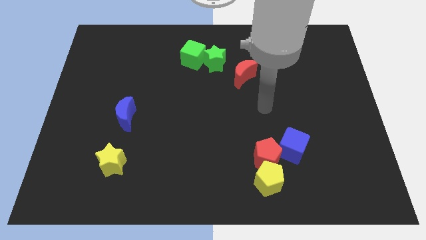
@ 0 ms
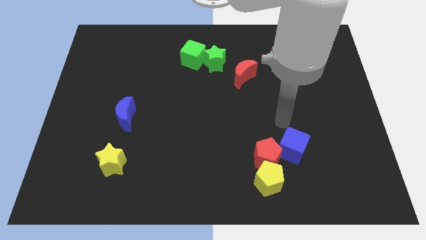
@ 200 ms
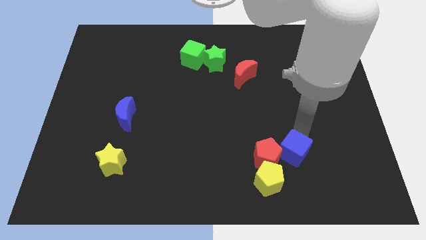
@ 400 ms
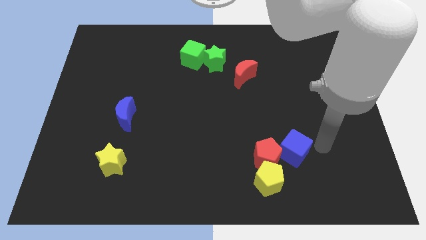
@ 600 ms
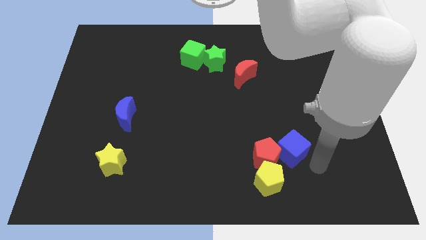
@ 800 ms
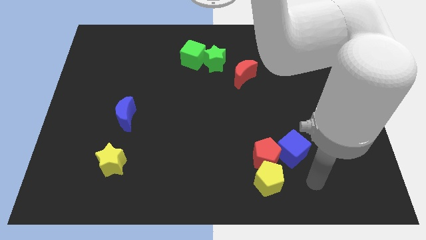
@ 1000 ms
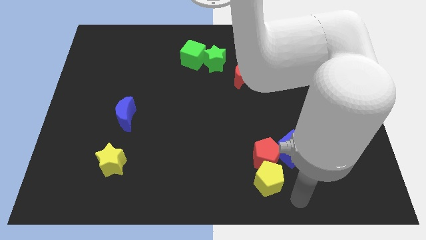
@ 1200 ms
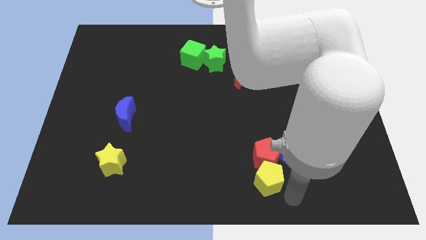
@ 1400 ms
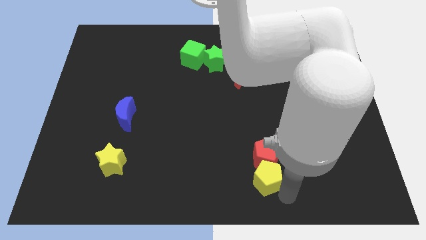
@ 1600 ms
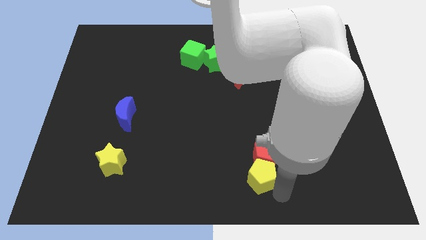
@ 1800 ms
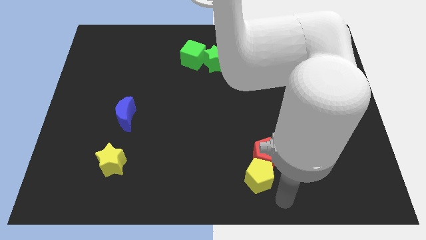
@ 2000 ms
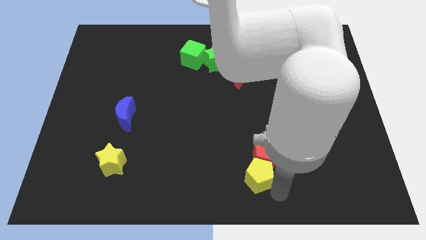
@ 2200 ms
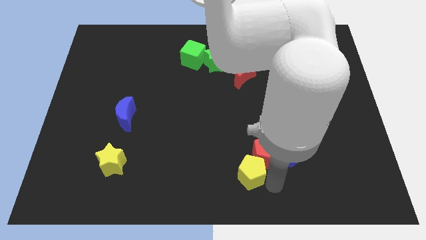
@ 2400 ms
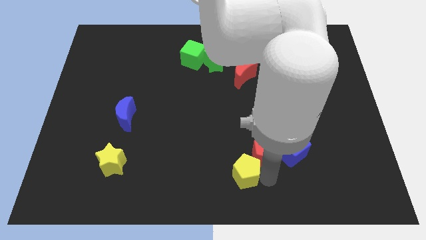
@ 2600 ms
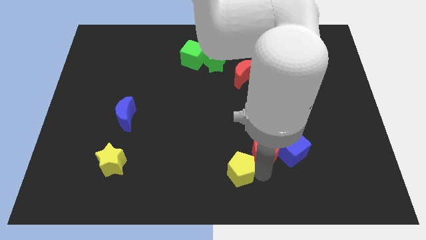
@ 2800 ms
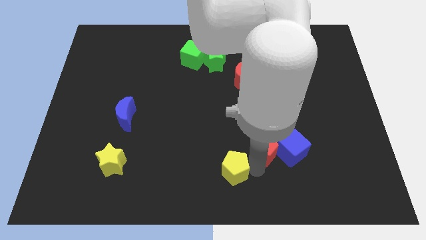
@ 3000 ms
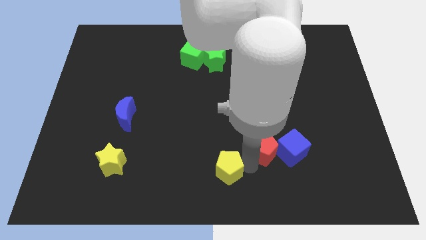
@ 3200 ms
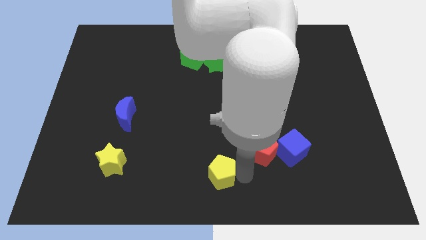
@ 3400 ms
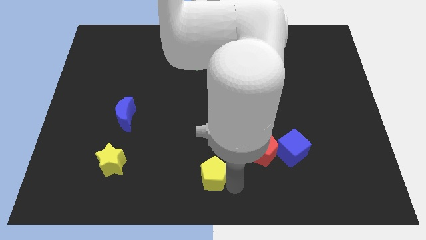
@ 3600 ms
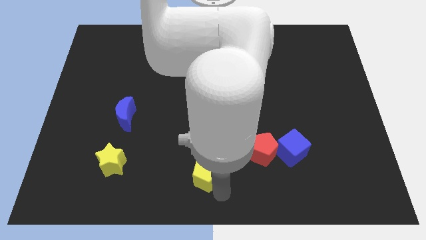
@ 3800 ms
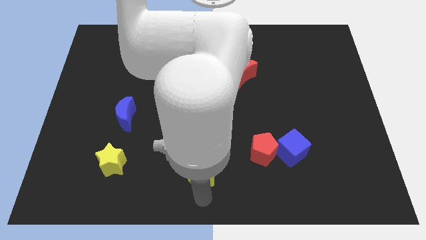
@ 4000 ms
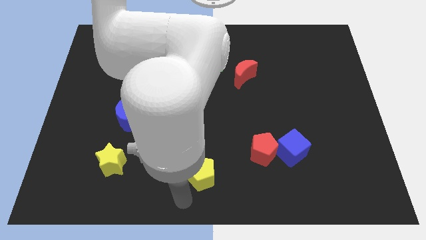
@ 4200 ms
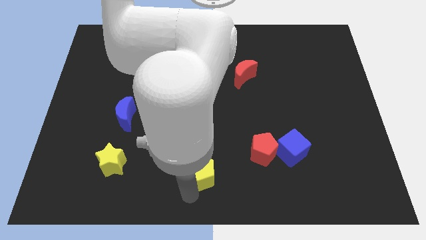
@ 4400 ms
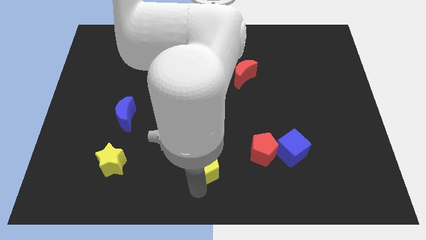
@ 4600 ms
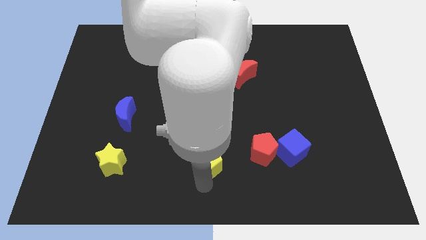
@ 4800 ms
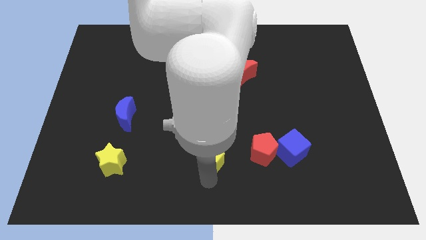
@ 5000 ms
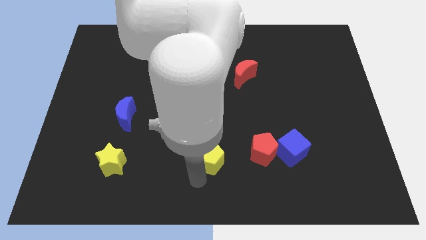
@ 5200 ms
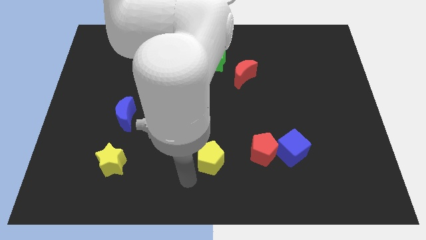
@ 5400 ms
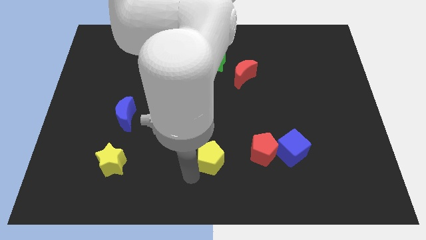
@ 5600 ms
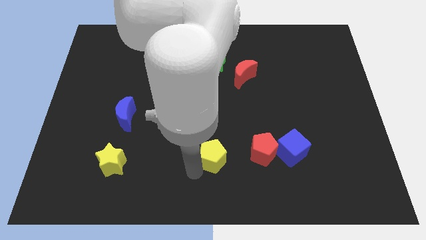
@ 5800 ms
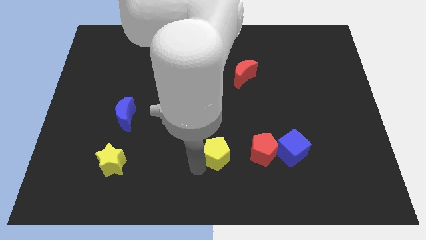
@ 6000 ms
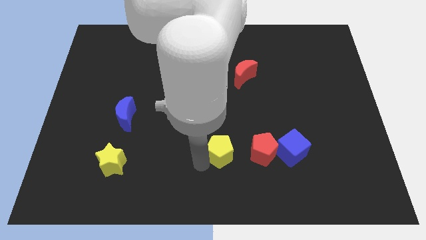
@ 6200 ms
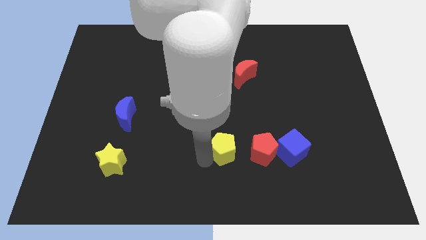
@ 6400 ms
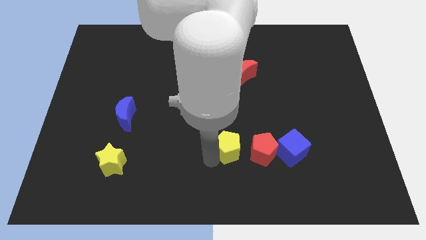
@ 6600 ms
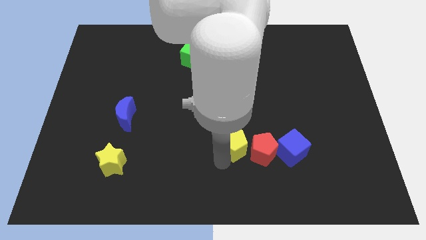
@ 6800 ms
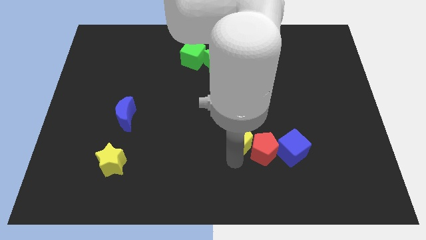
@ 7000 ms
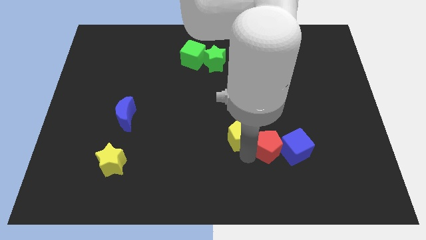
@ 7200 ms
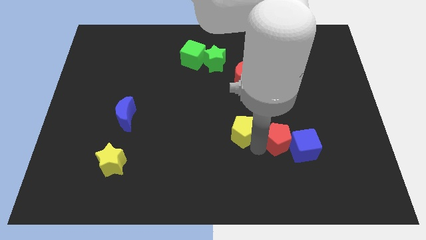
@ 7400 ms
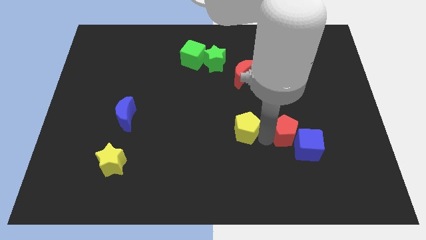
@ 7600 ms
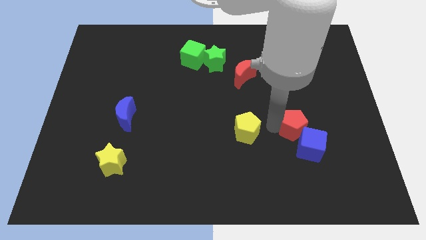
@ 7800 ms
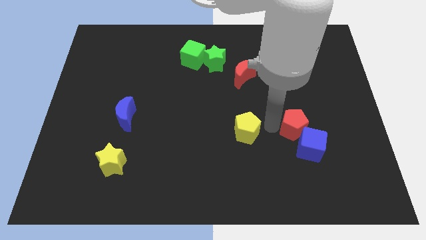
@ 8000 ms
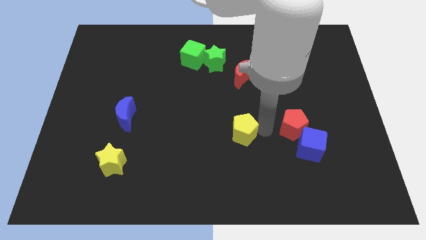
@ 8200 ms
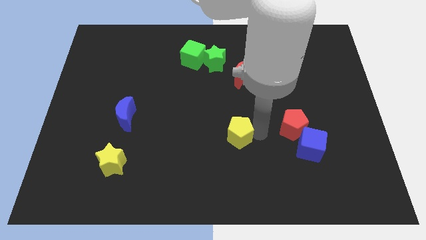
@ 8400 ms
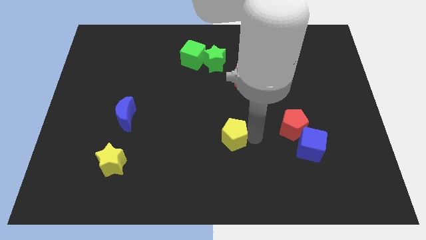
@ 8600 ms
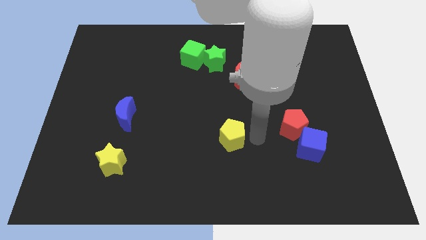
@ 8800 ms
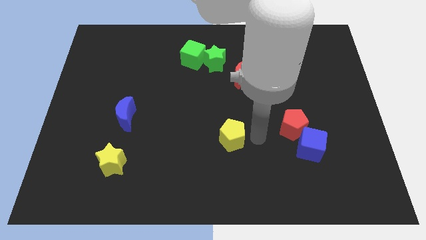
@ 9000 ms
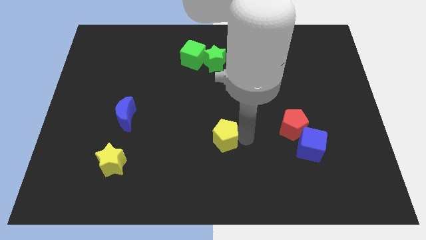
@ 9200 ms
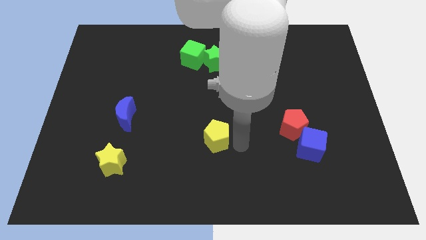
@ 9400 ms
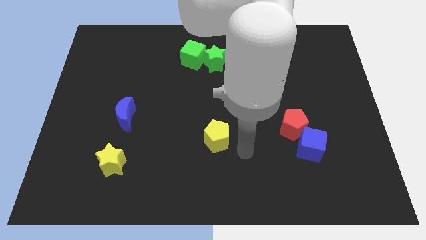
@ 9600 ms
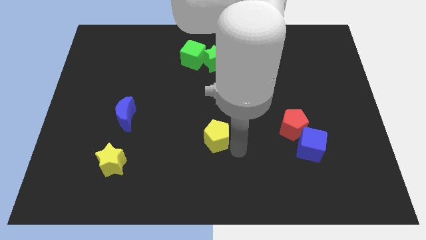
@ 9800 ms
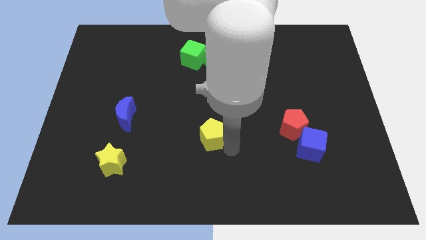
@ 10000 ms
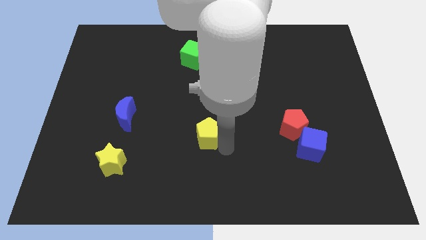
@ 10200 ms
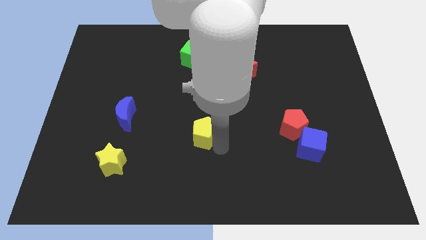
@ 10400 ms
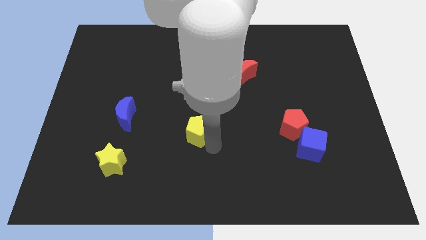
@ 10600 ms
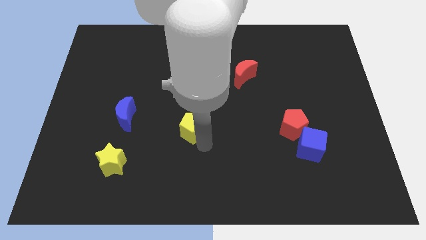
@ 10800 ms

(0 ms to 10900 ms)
move the yellow pentagon up and left diagonally

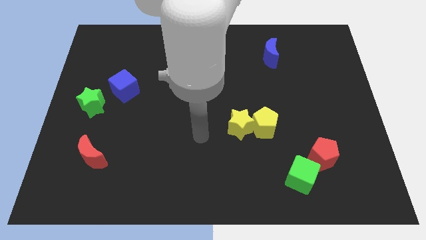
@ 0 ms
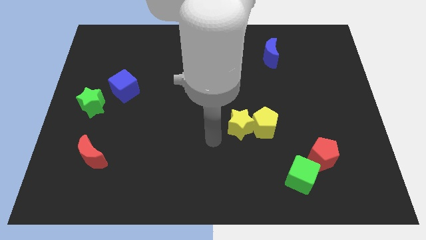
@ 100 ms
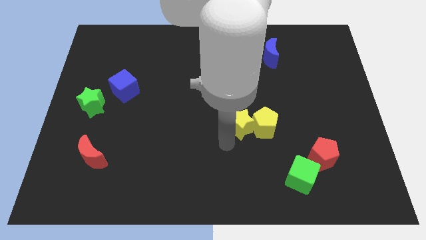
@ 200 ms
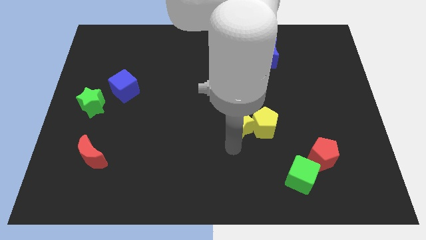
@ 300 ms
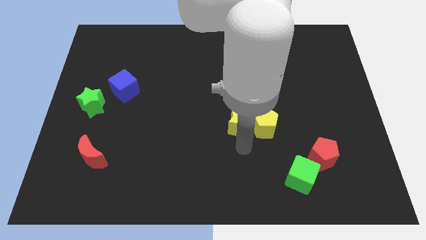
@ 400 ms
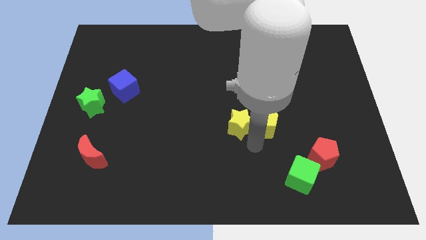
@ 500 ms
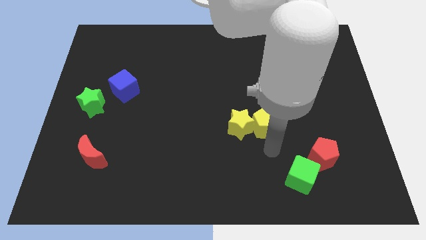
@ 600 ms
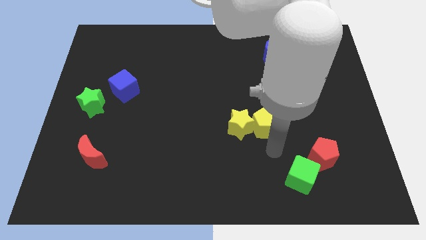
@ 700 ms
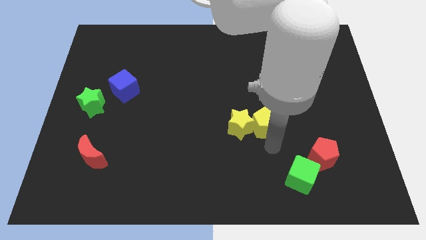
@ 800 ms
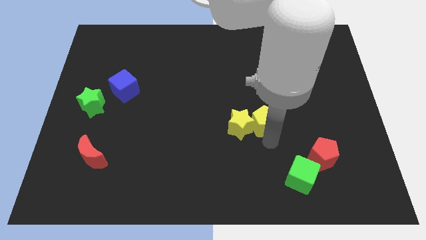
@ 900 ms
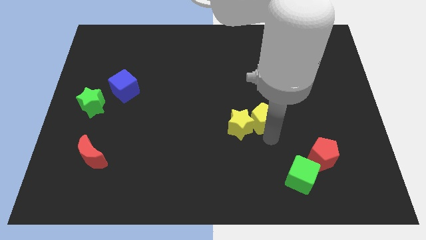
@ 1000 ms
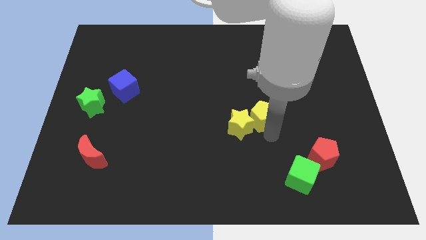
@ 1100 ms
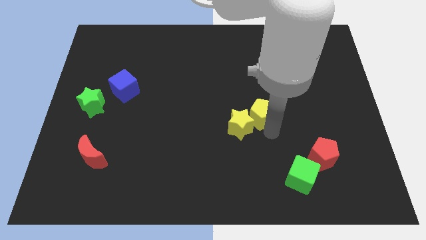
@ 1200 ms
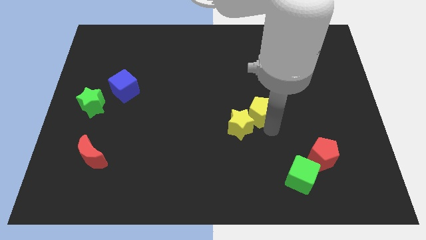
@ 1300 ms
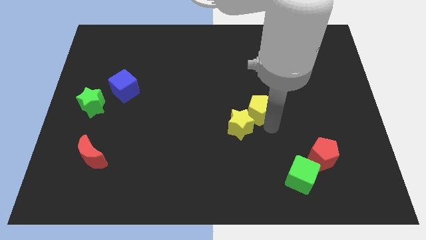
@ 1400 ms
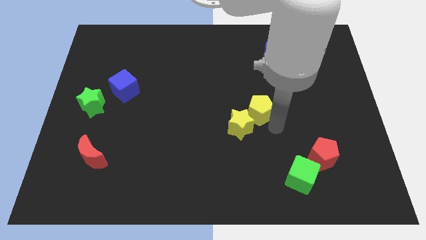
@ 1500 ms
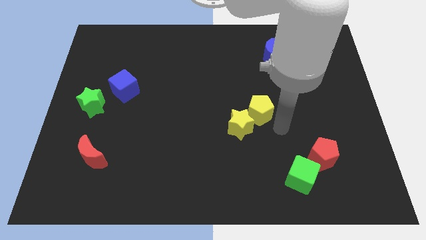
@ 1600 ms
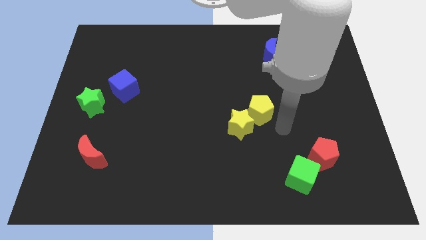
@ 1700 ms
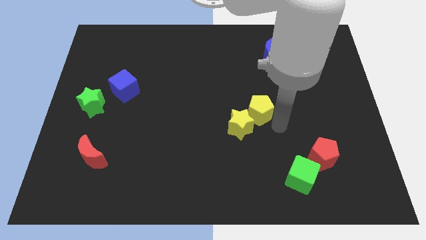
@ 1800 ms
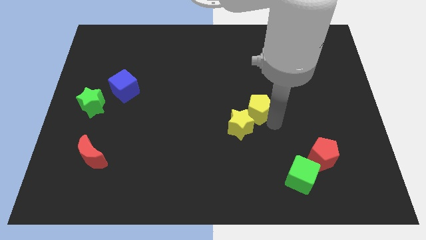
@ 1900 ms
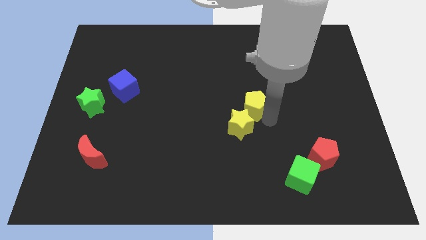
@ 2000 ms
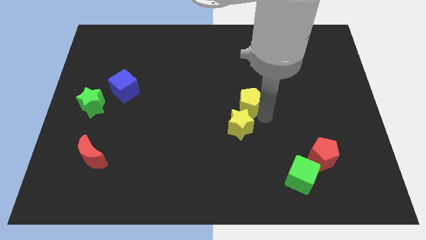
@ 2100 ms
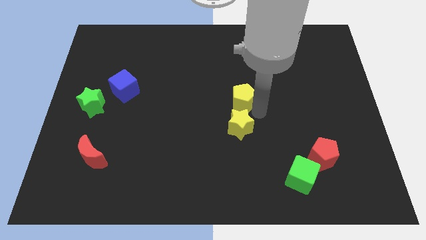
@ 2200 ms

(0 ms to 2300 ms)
slightly push the yellow pentagon upwards and to the left

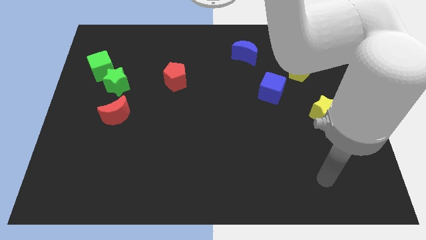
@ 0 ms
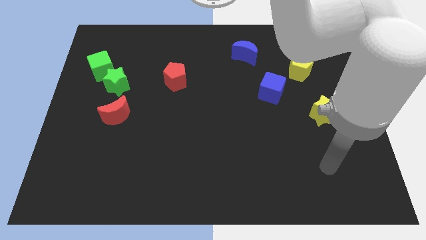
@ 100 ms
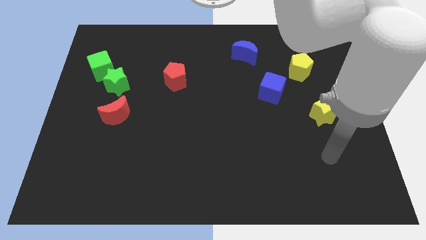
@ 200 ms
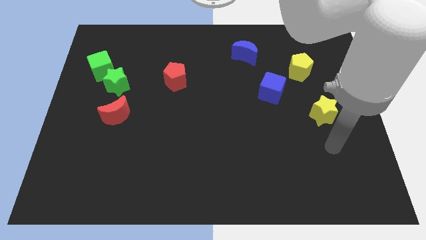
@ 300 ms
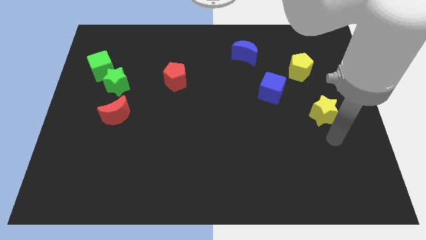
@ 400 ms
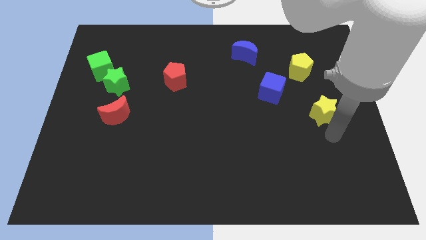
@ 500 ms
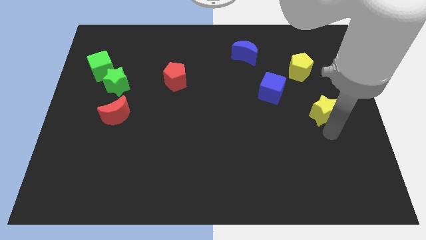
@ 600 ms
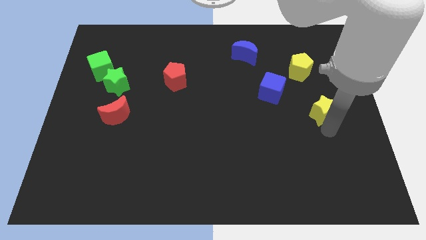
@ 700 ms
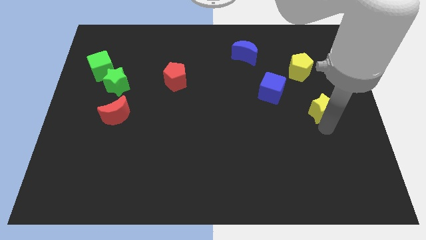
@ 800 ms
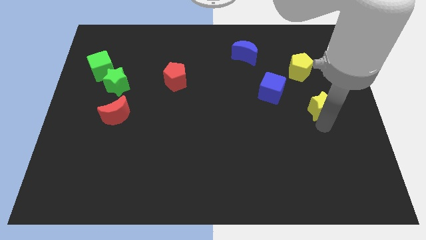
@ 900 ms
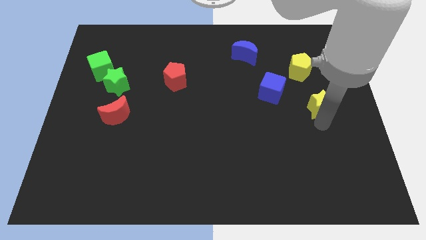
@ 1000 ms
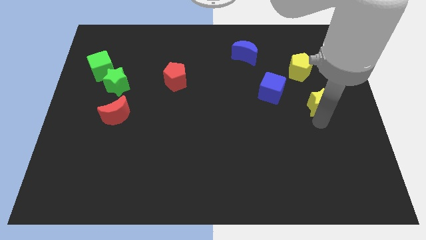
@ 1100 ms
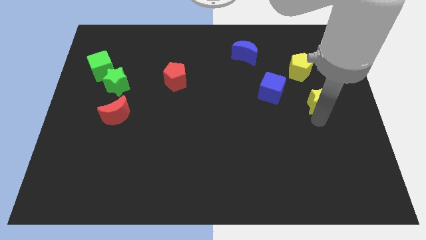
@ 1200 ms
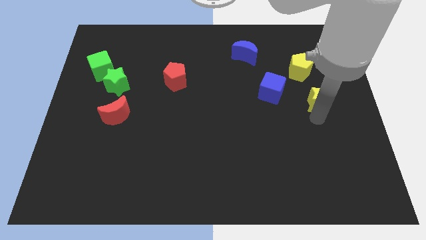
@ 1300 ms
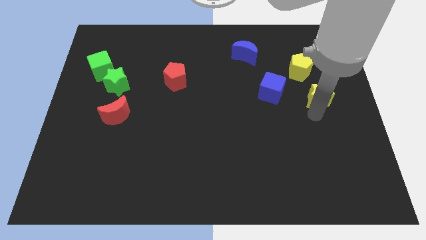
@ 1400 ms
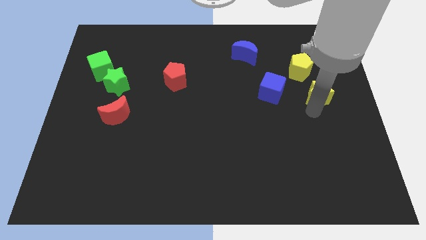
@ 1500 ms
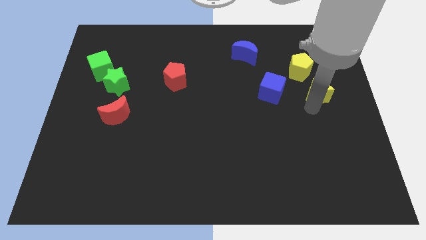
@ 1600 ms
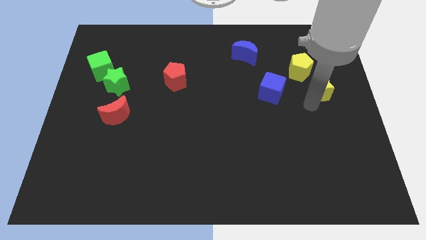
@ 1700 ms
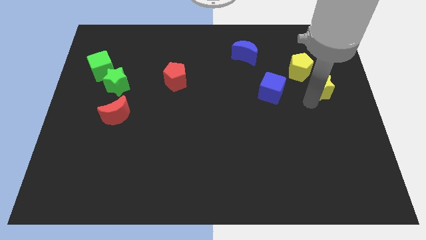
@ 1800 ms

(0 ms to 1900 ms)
slightly push the yellow star upwards
